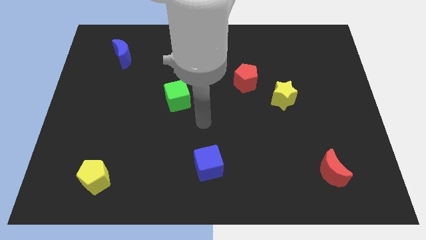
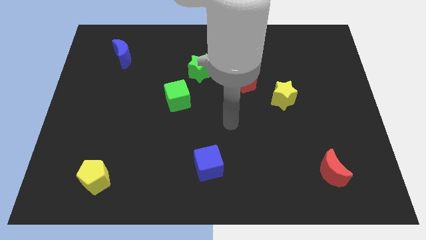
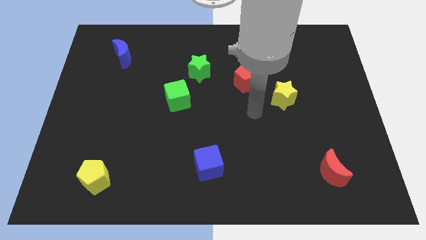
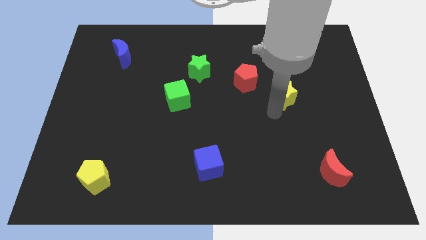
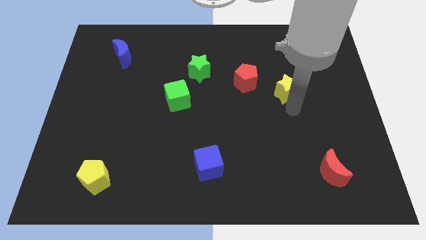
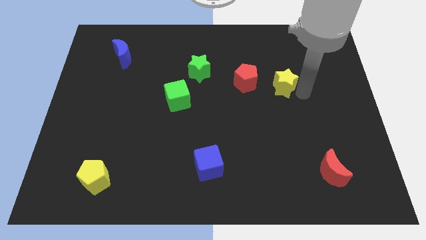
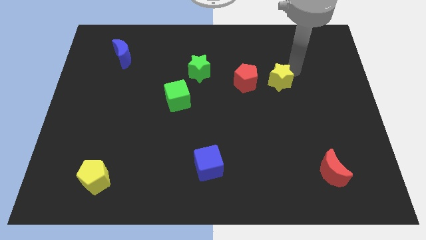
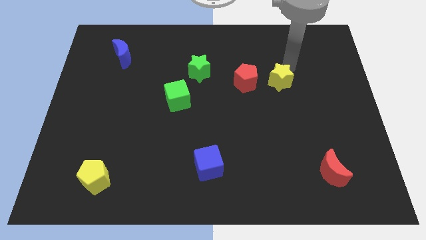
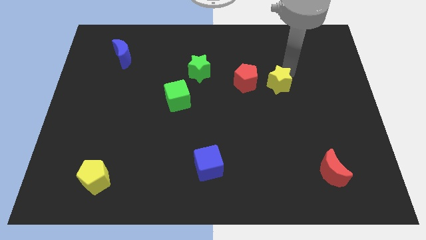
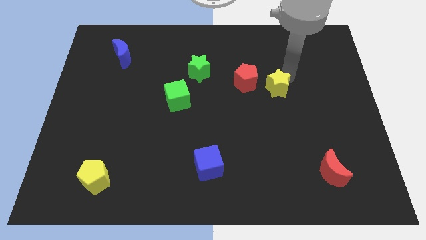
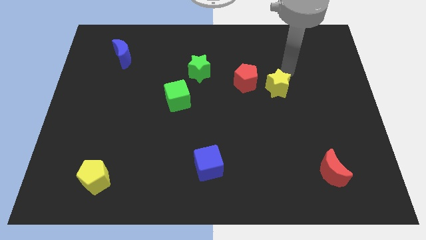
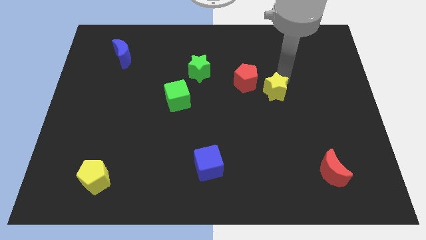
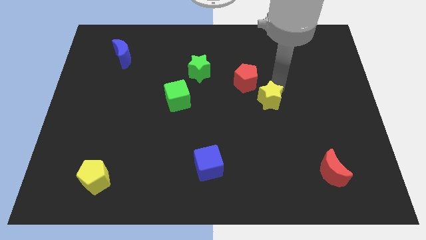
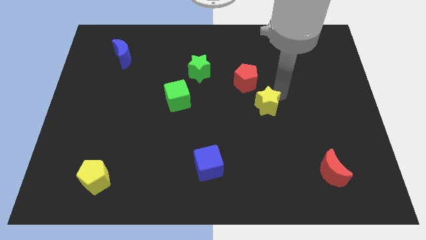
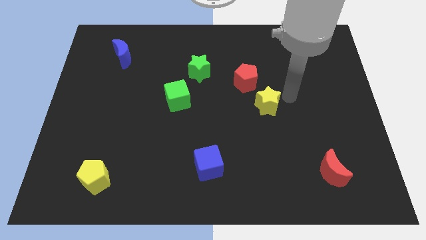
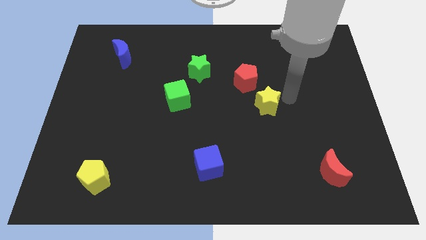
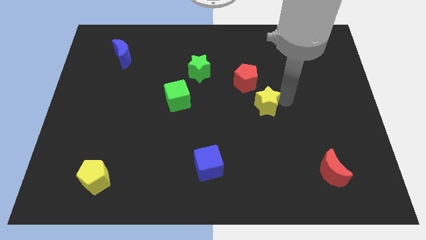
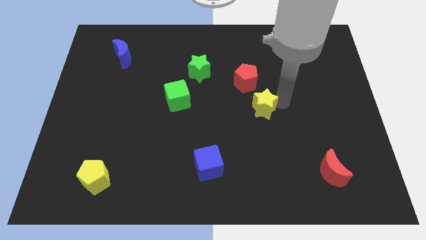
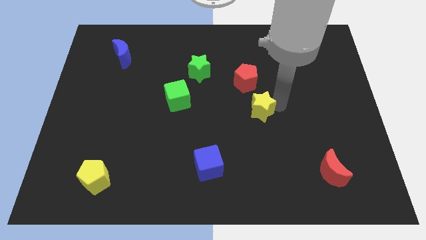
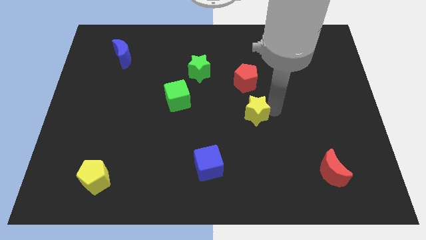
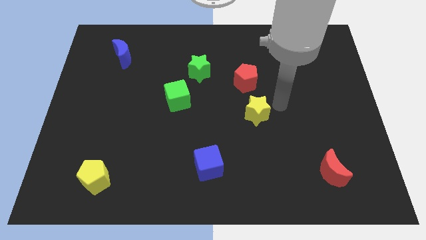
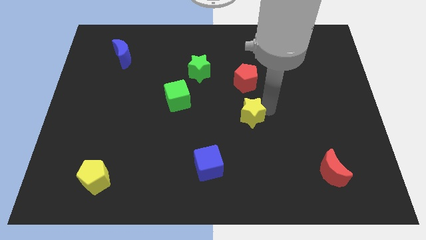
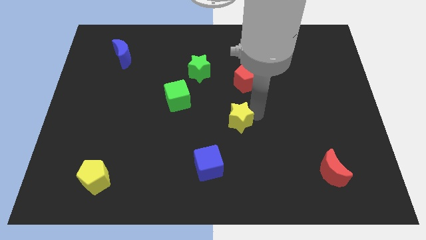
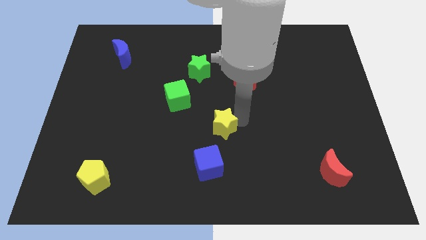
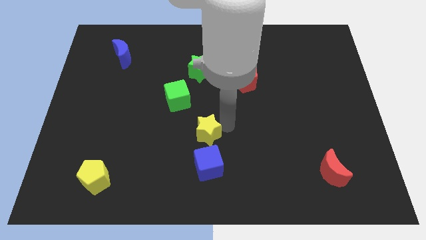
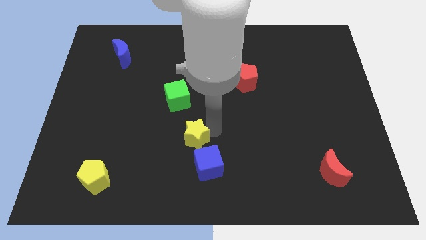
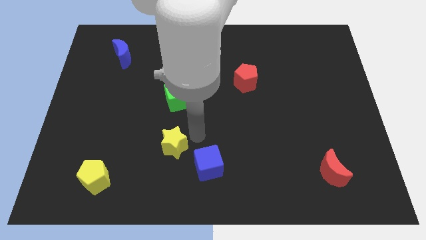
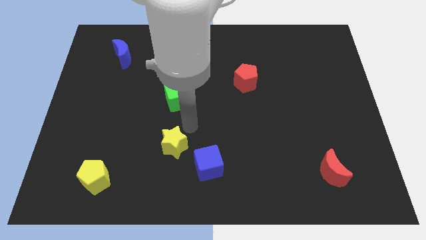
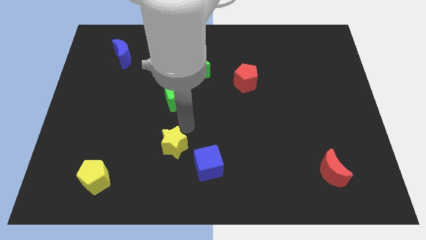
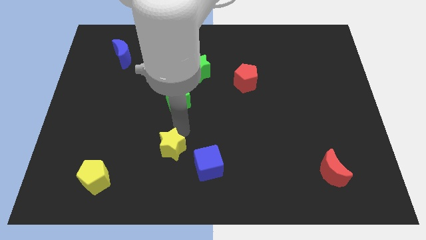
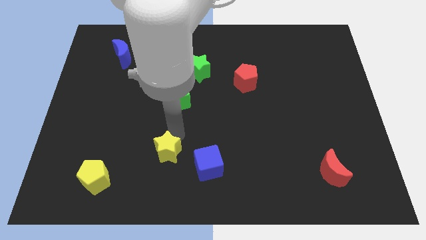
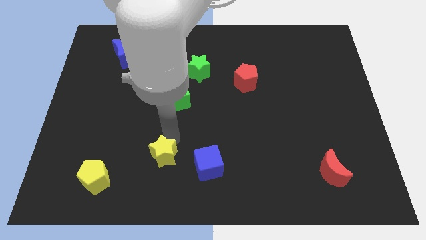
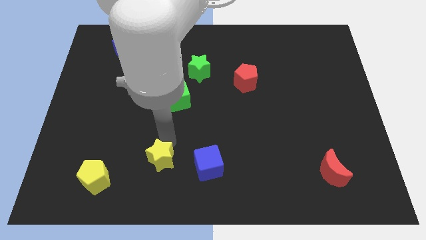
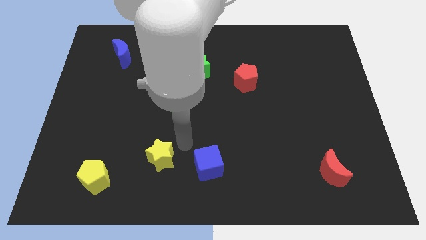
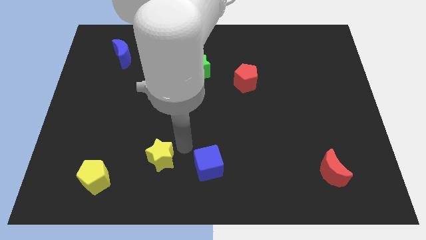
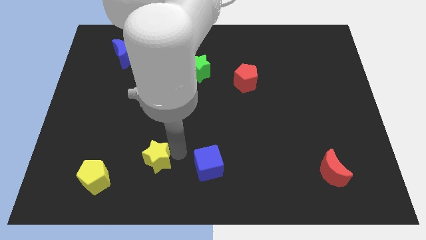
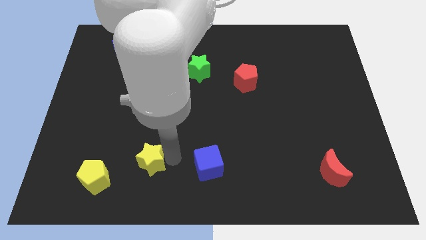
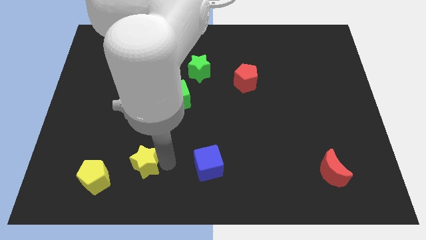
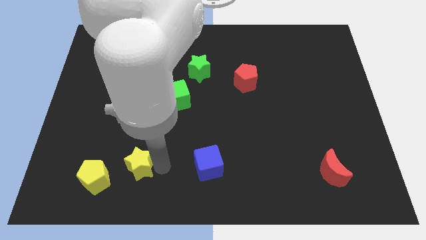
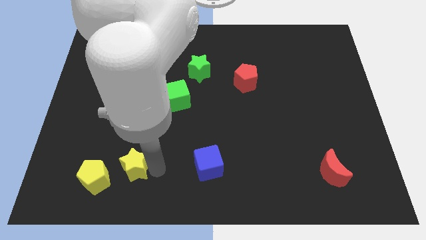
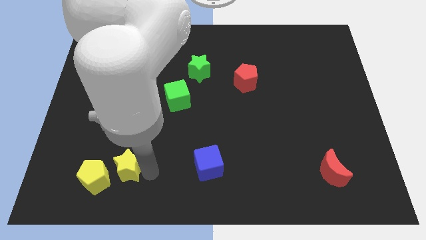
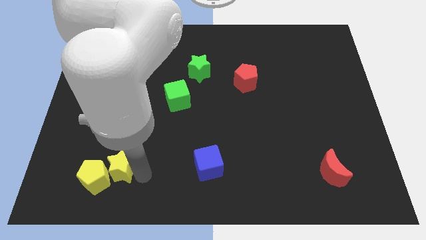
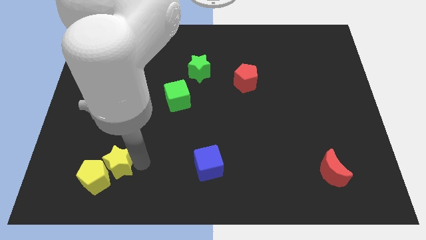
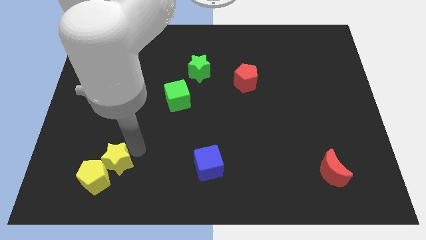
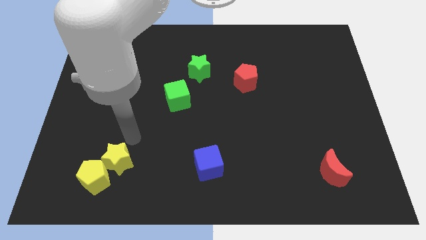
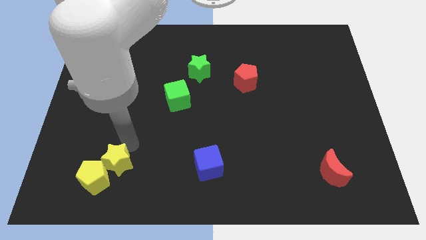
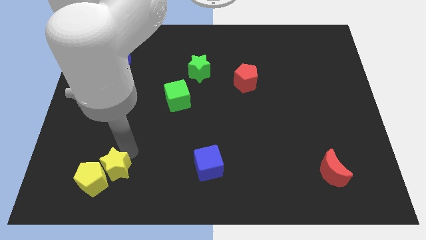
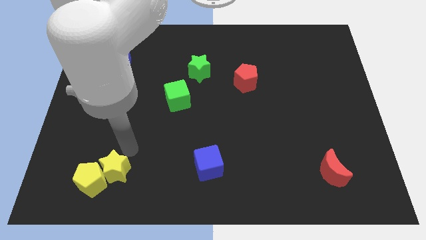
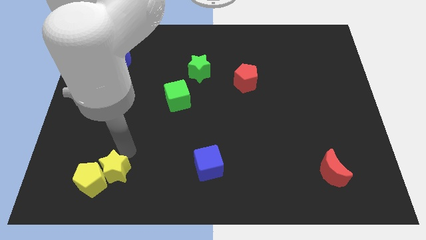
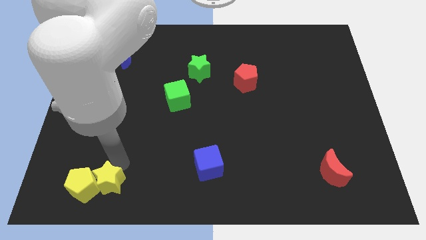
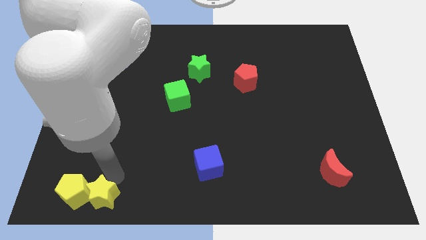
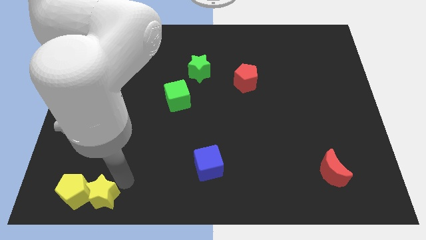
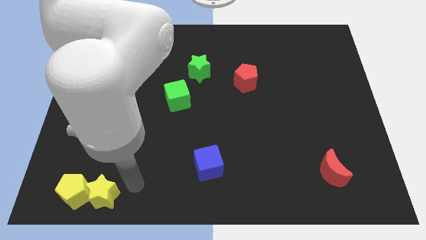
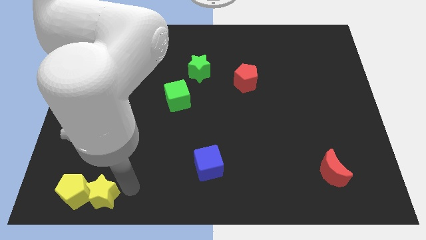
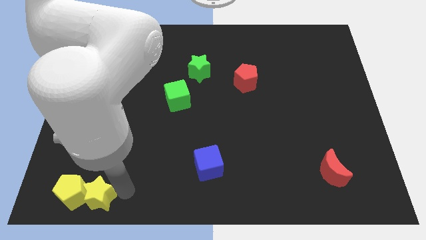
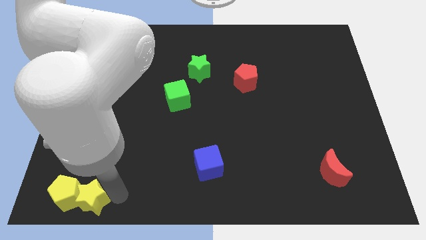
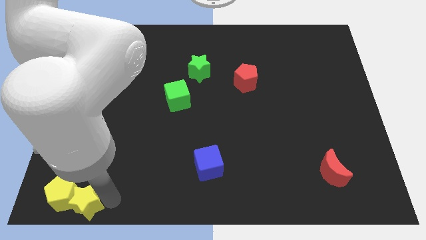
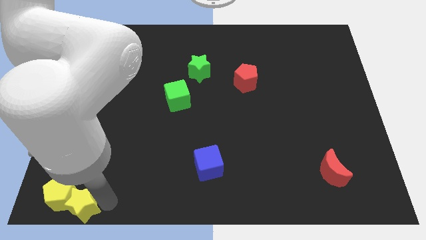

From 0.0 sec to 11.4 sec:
put the yellow star to the bottom left corner

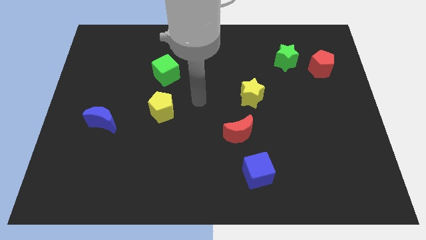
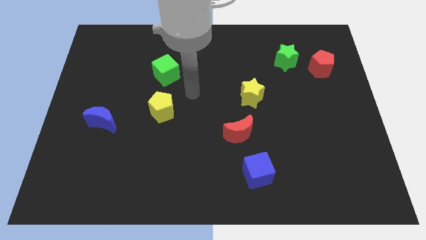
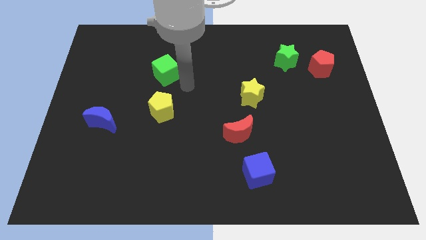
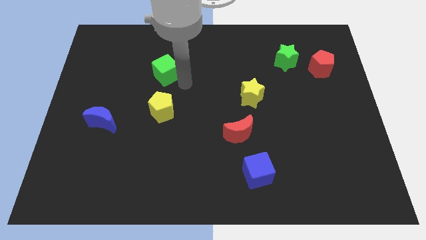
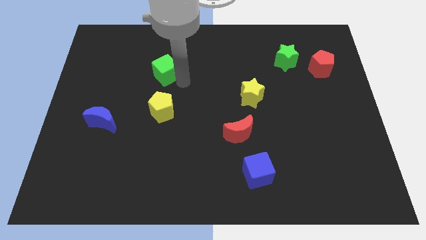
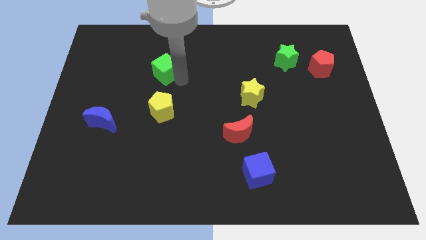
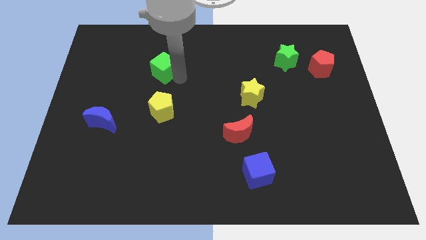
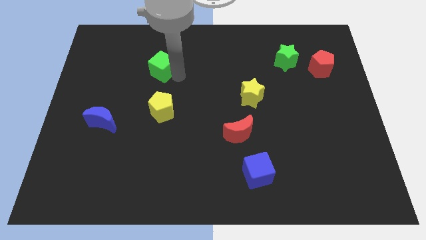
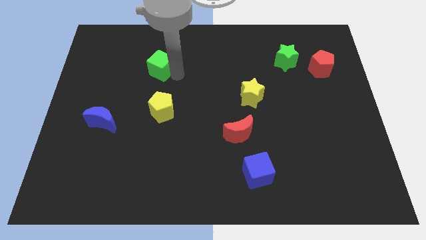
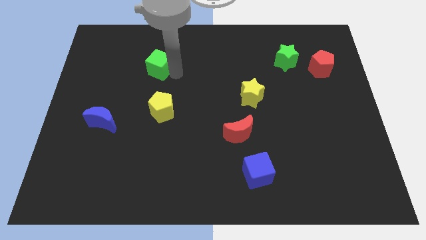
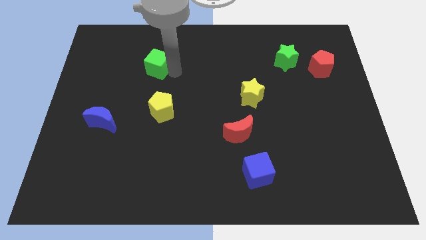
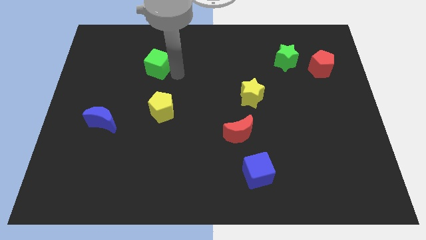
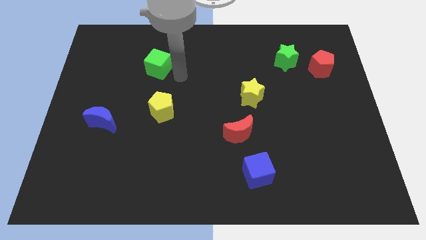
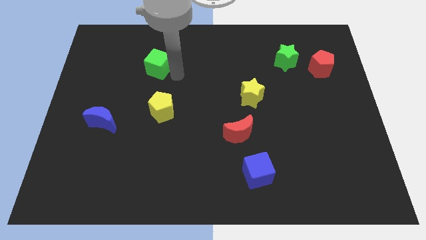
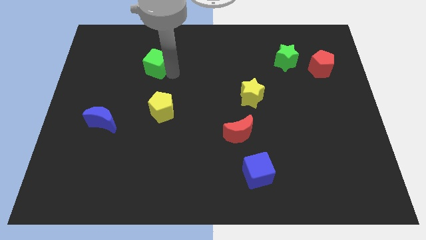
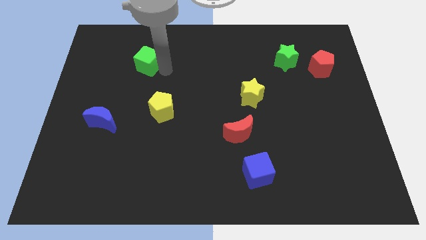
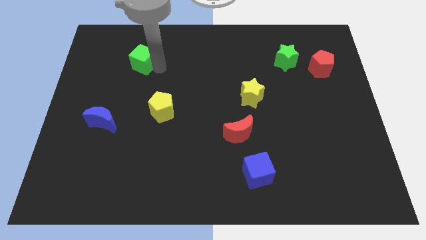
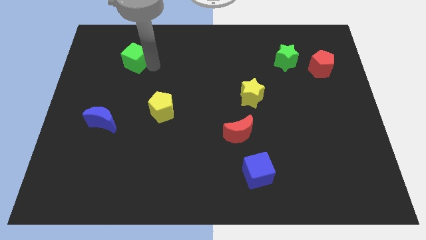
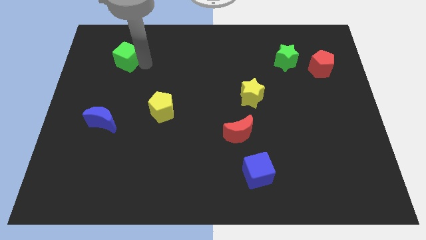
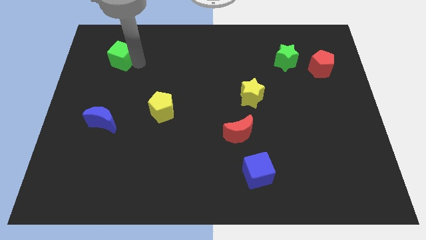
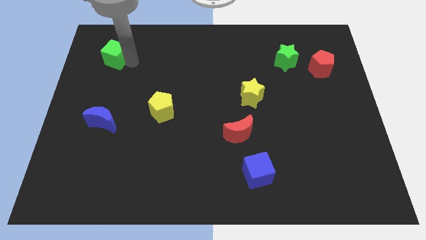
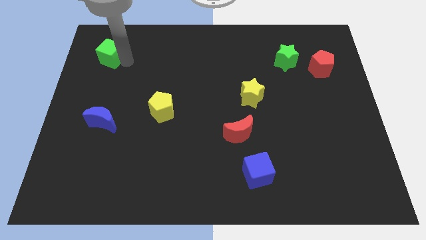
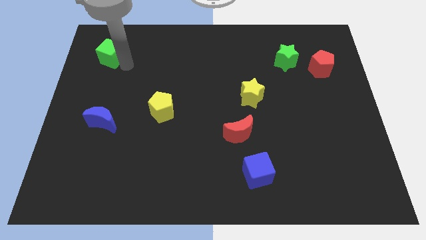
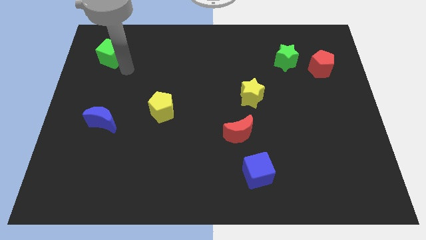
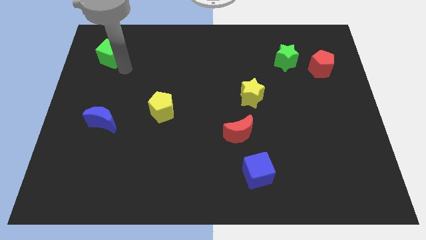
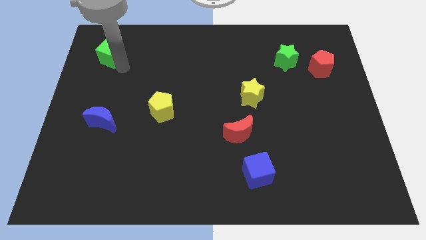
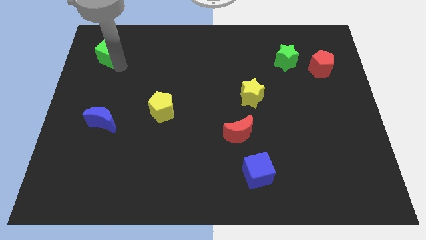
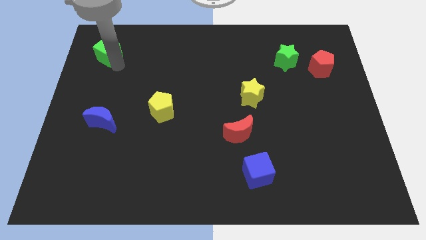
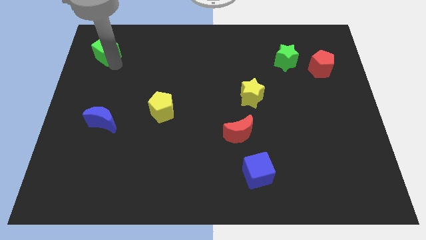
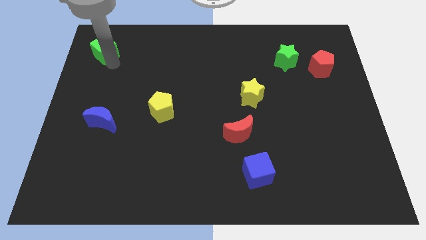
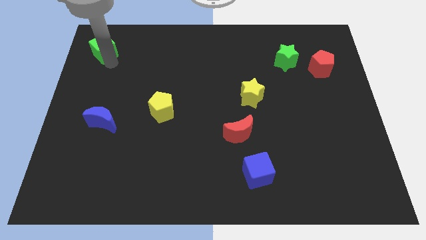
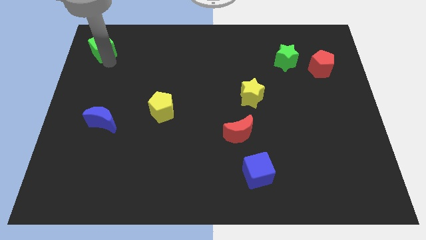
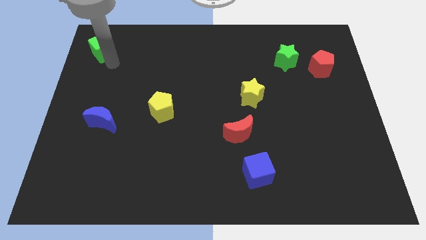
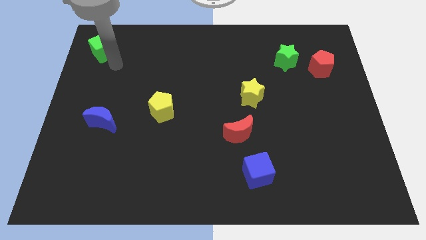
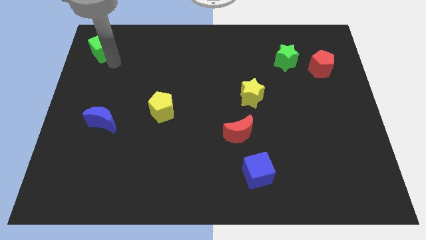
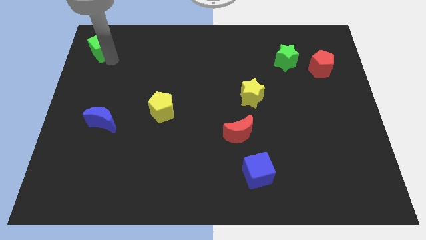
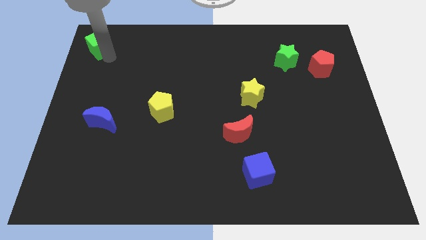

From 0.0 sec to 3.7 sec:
put the green cube to the top left of the board
